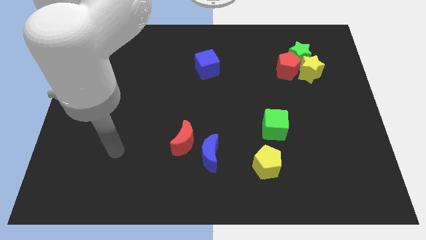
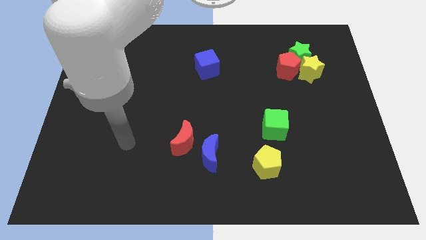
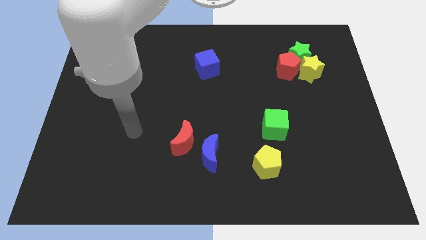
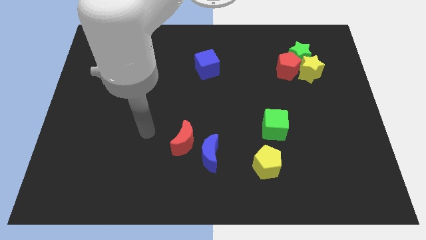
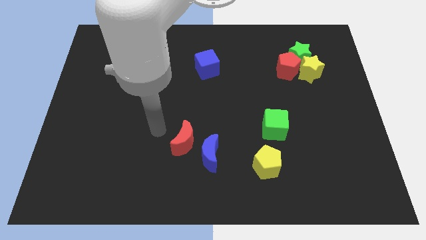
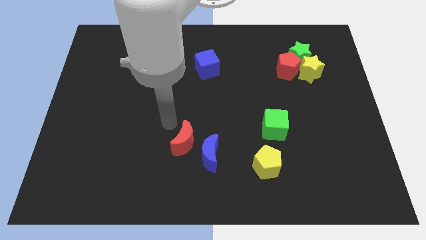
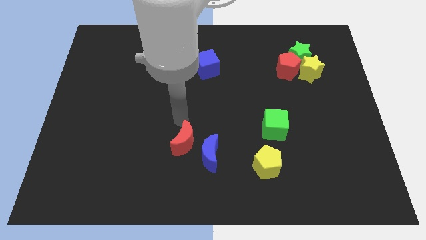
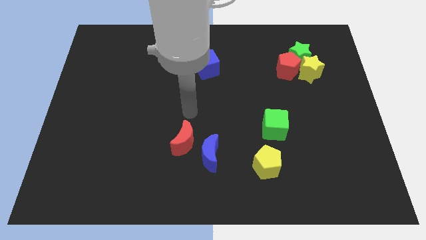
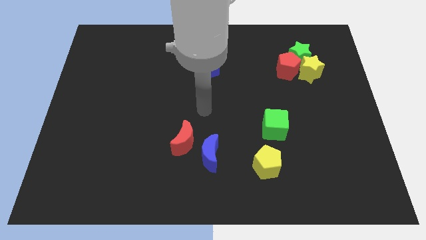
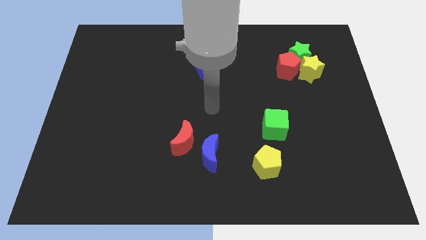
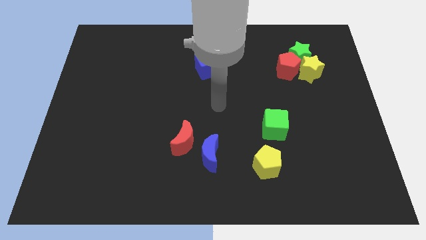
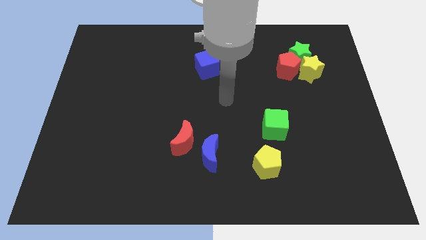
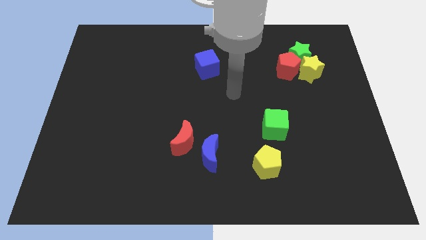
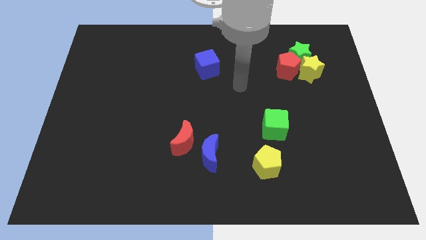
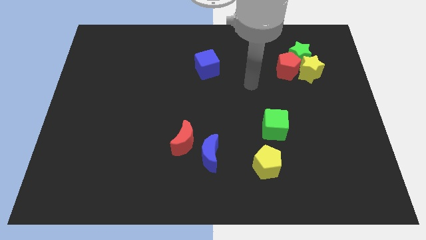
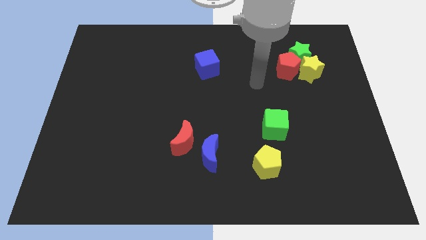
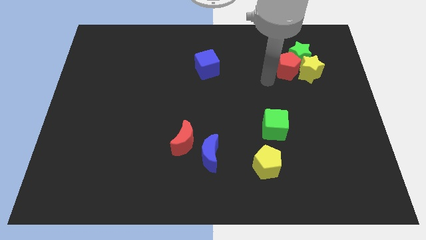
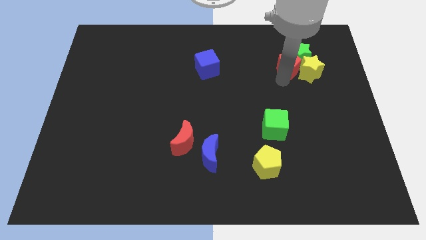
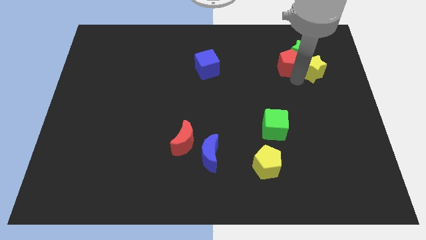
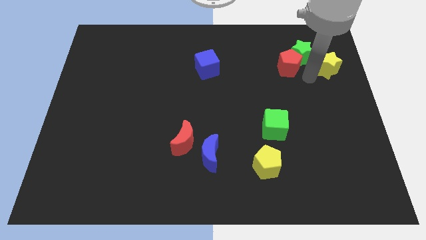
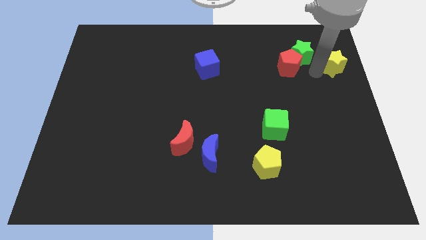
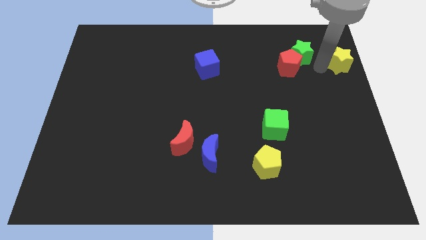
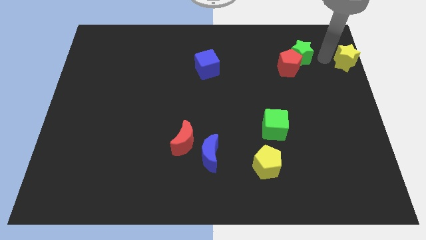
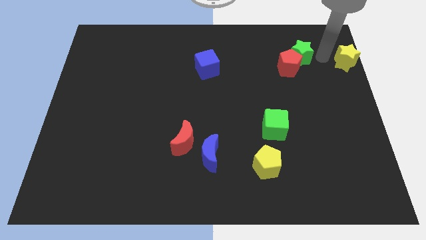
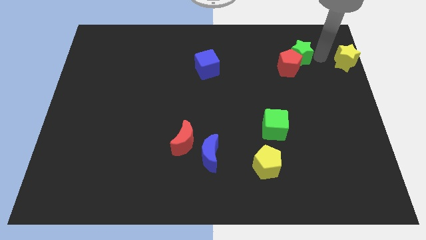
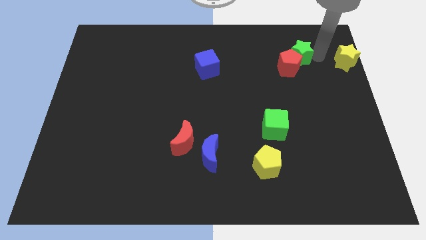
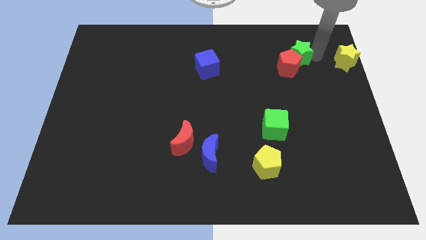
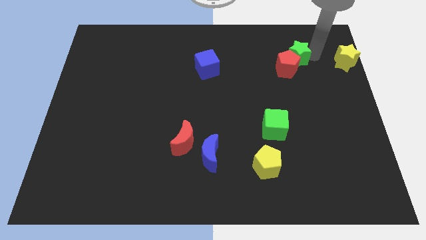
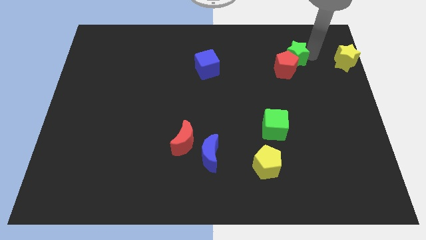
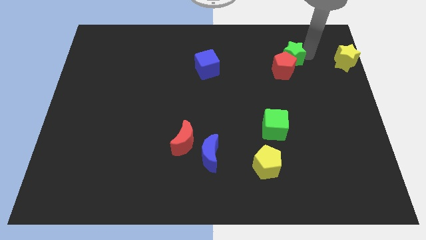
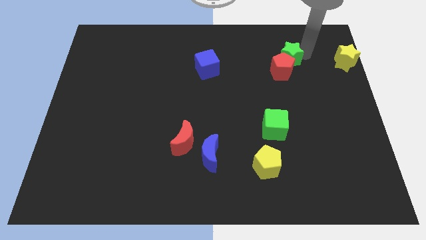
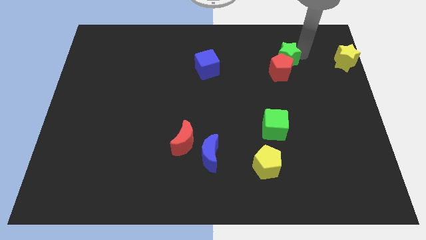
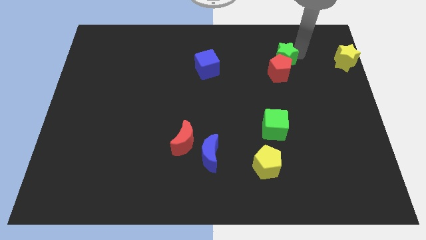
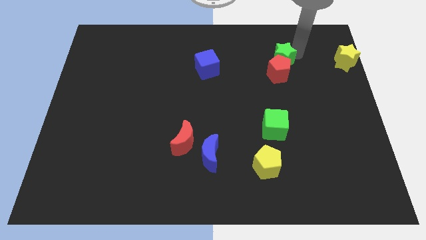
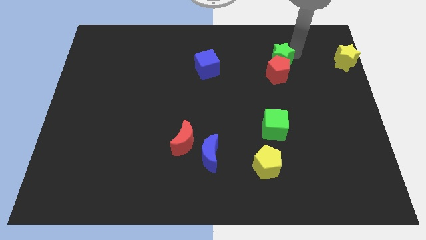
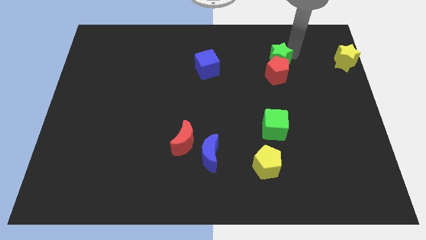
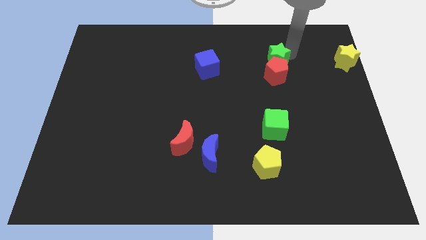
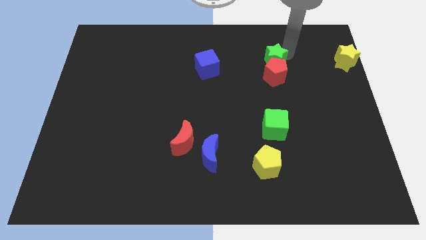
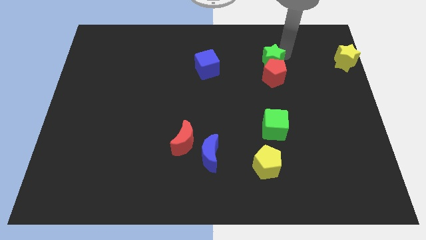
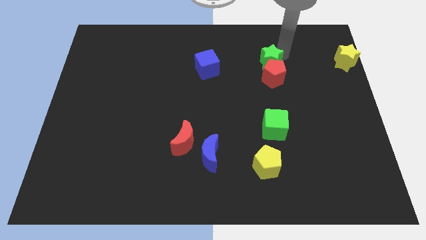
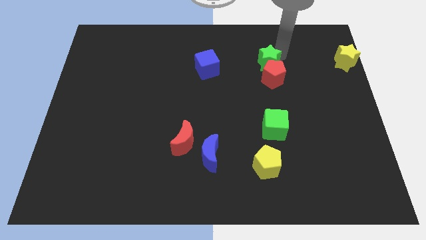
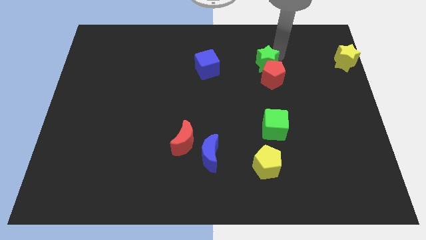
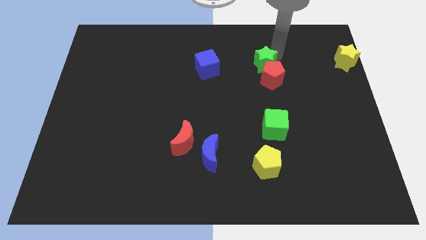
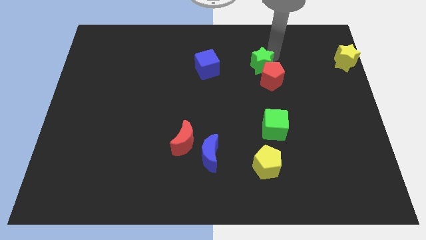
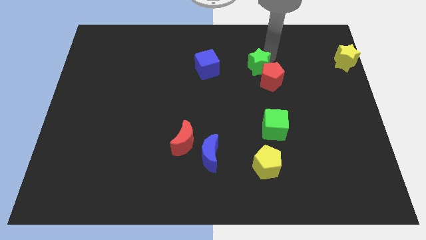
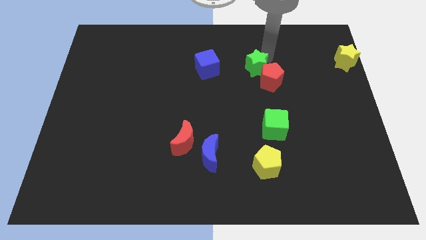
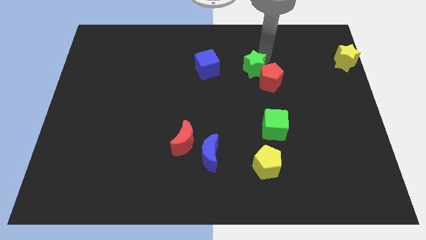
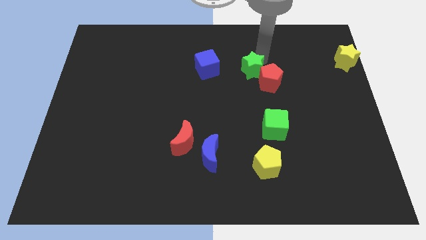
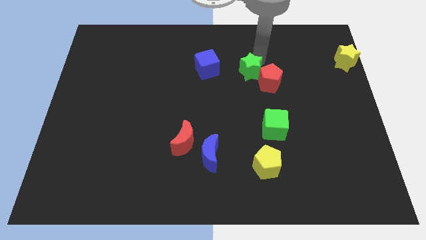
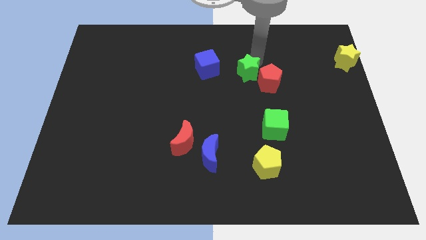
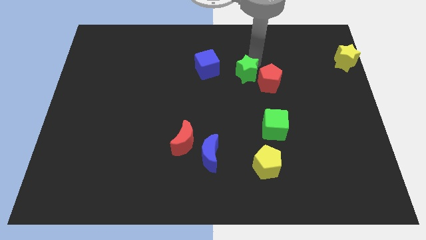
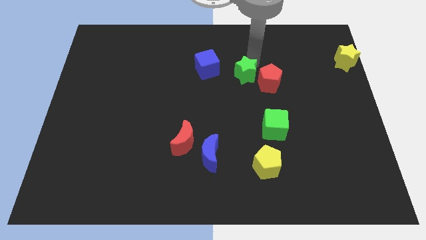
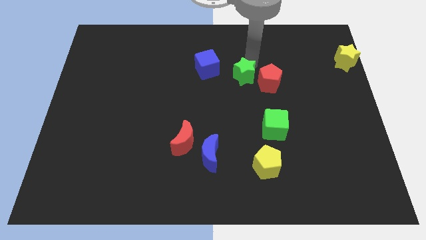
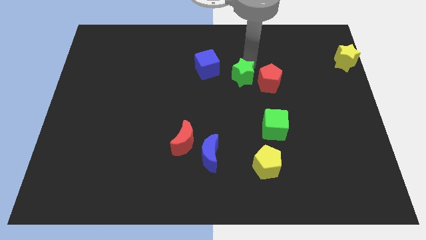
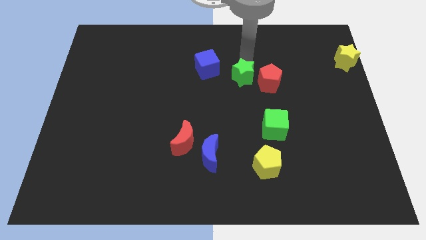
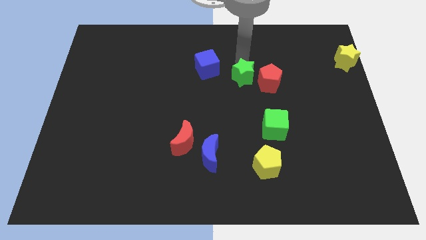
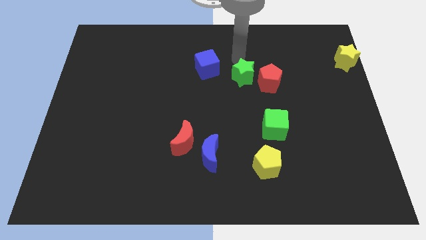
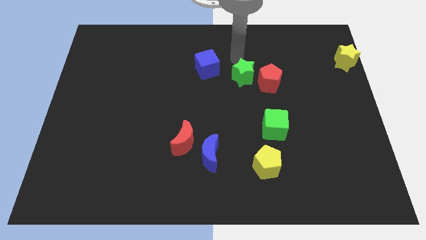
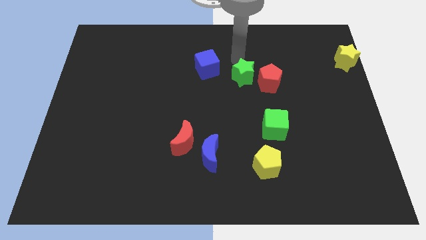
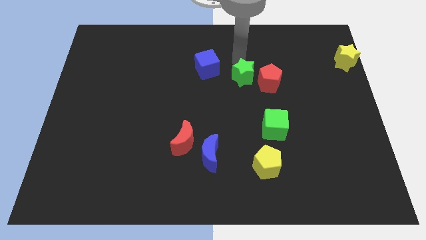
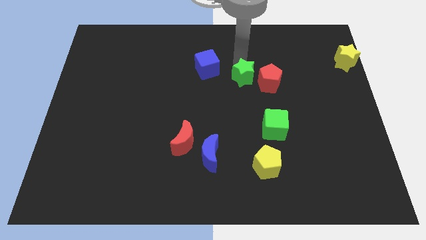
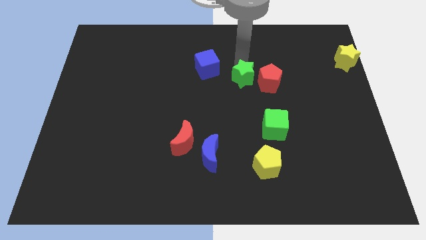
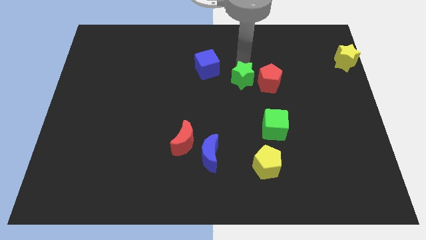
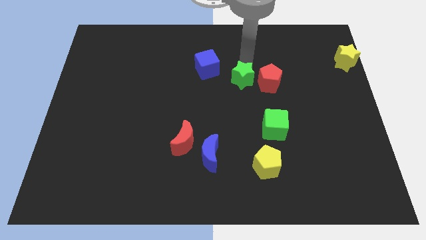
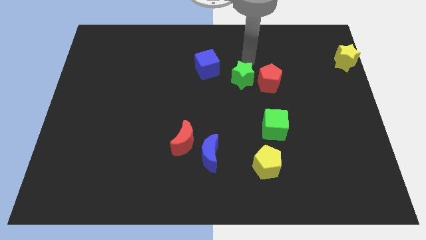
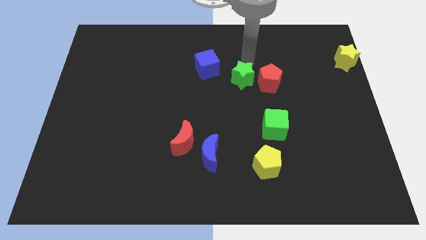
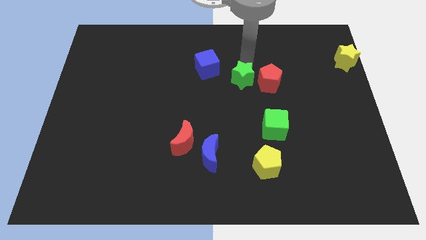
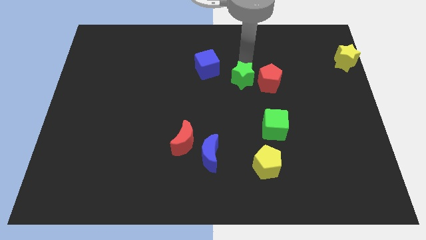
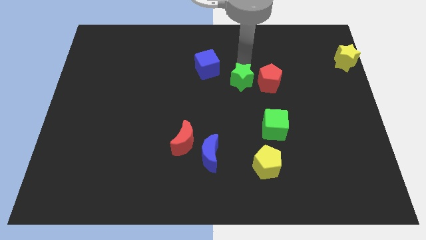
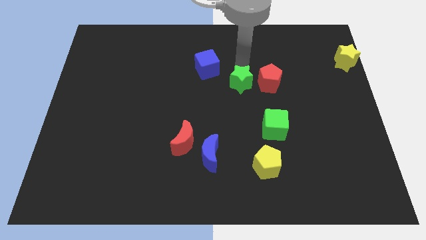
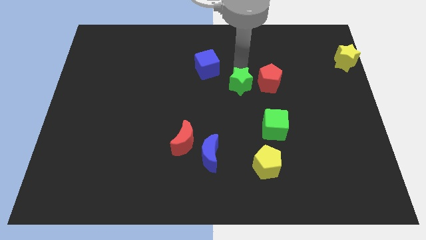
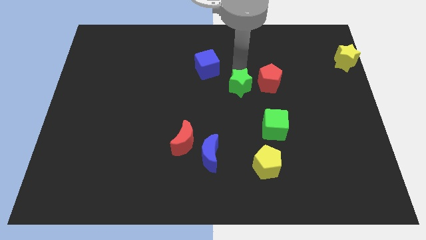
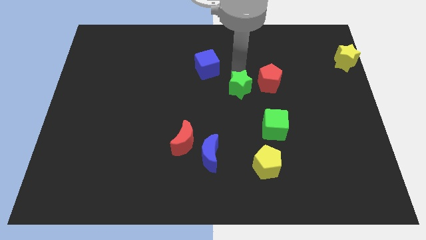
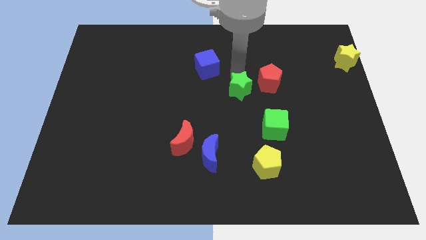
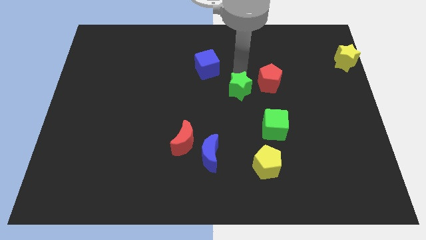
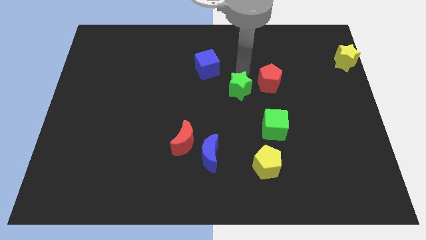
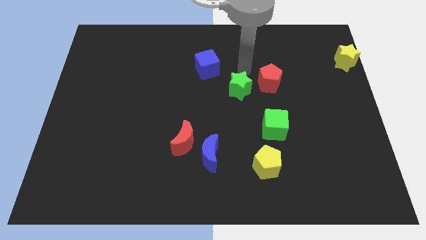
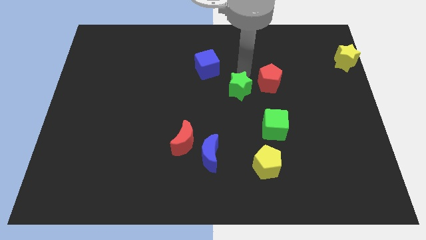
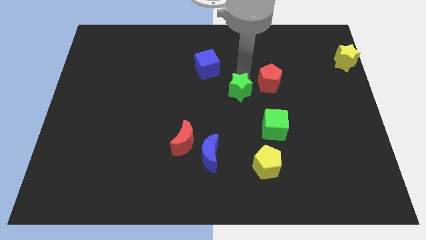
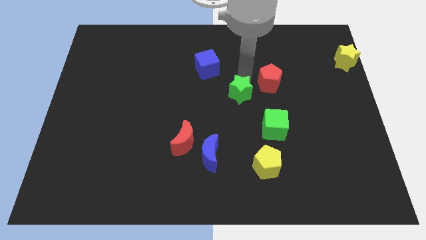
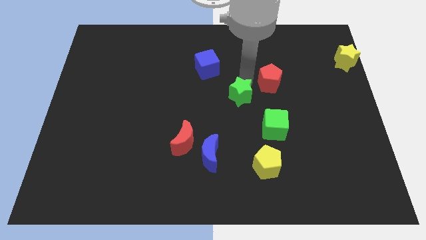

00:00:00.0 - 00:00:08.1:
slide the green star down and left diagonally
